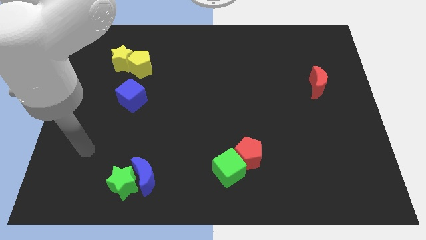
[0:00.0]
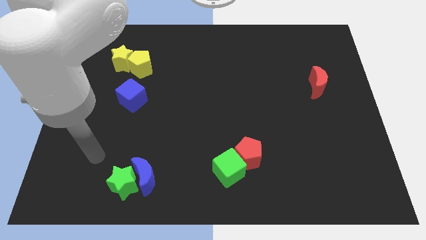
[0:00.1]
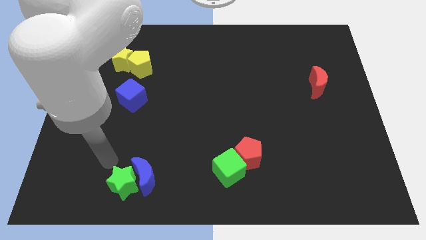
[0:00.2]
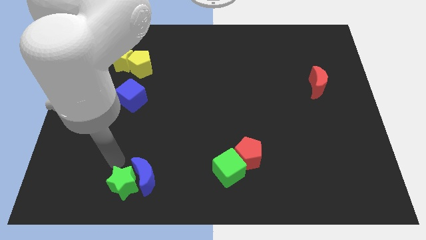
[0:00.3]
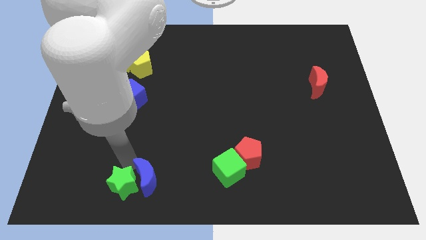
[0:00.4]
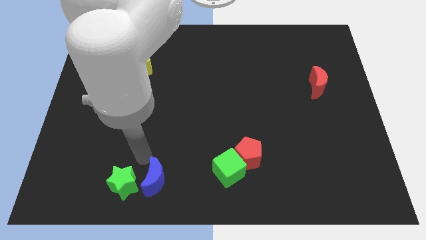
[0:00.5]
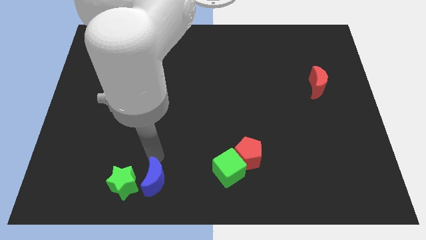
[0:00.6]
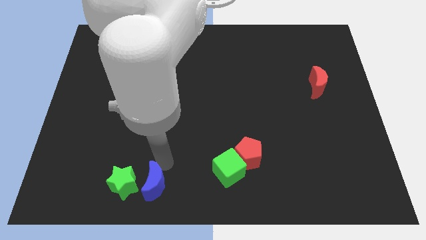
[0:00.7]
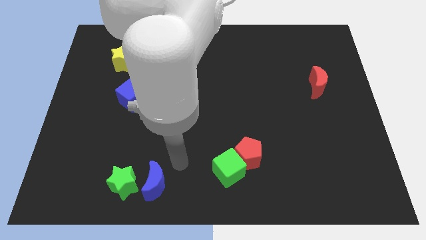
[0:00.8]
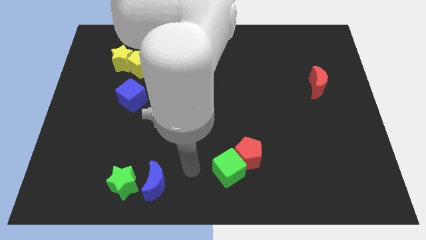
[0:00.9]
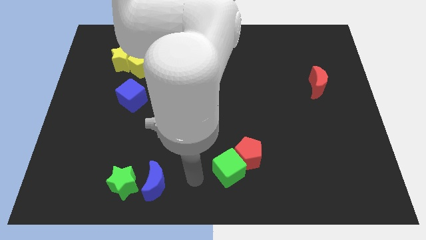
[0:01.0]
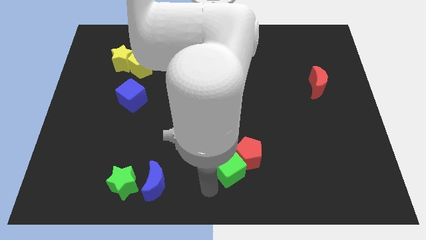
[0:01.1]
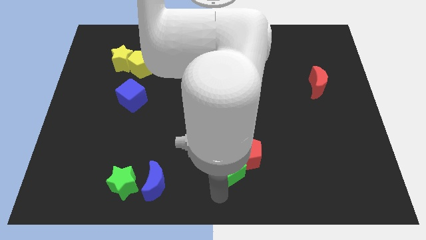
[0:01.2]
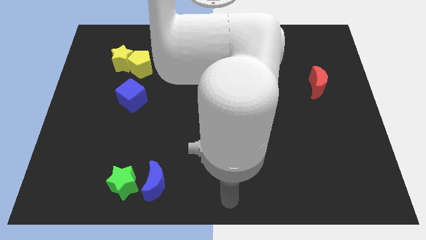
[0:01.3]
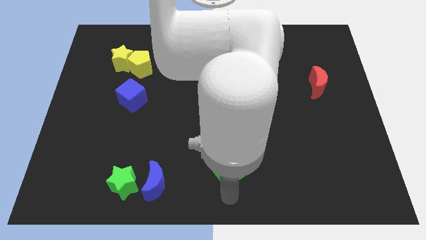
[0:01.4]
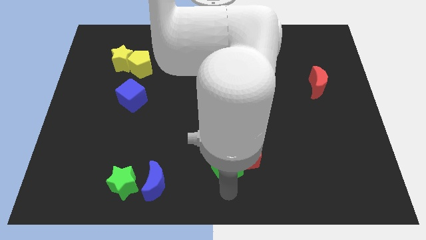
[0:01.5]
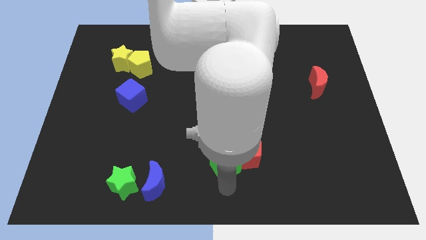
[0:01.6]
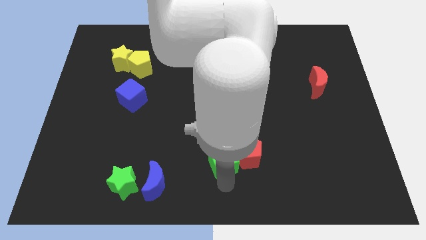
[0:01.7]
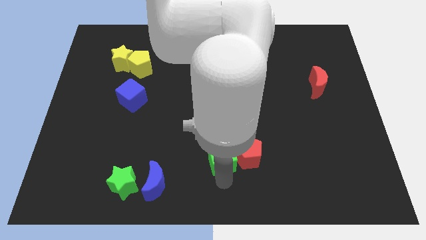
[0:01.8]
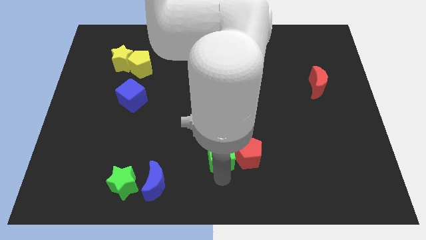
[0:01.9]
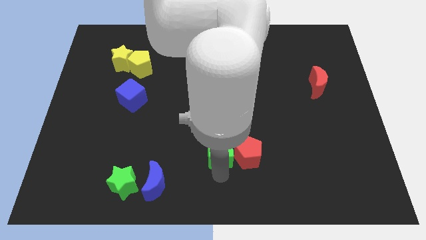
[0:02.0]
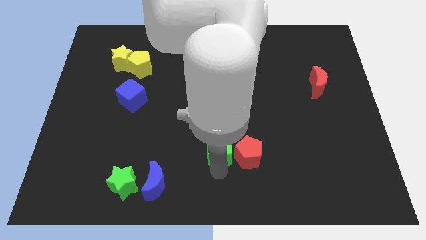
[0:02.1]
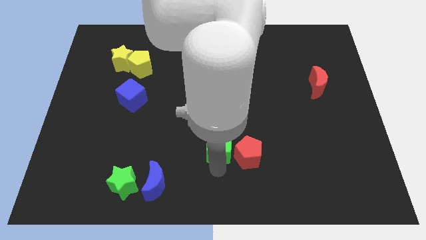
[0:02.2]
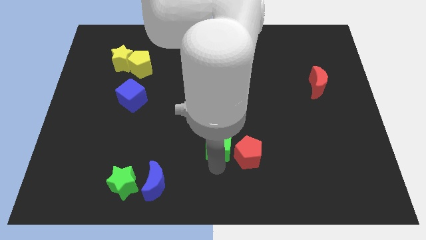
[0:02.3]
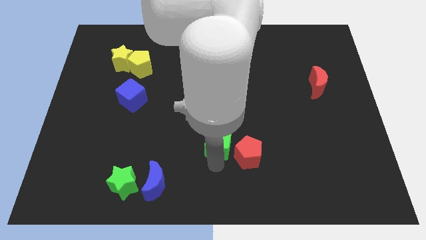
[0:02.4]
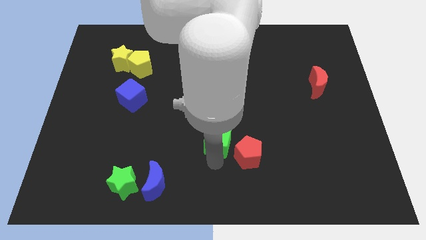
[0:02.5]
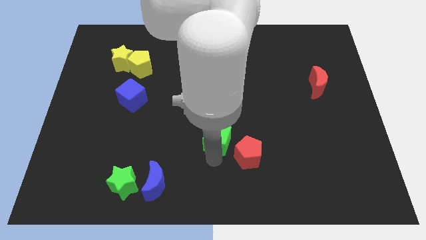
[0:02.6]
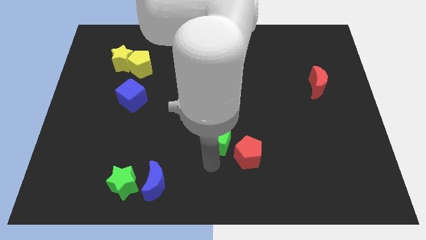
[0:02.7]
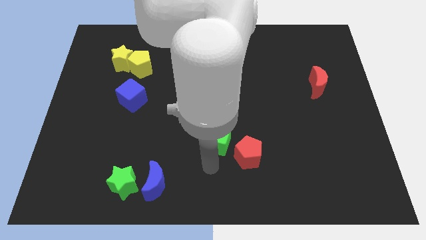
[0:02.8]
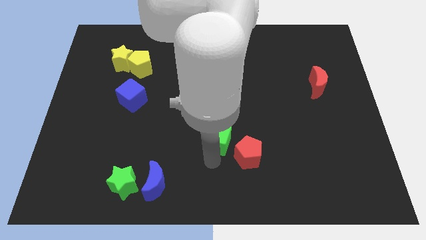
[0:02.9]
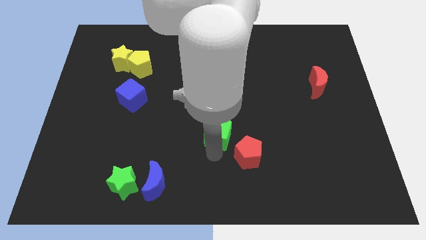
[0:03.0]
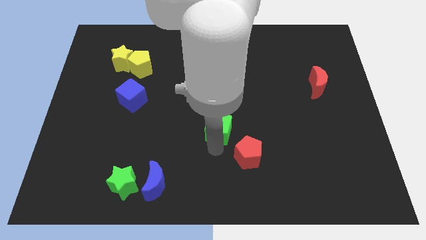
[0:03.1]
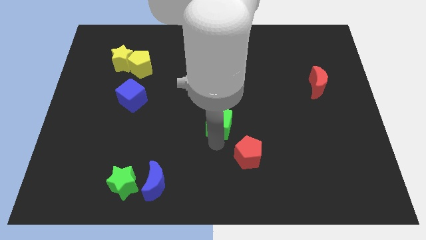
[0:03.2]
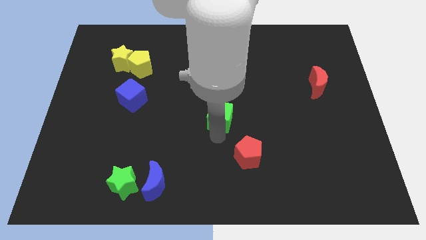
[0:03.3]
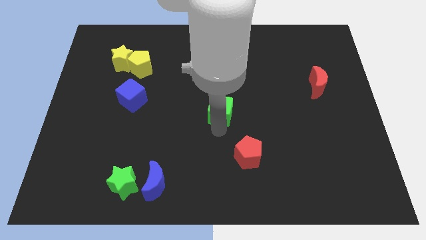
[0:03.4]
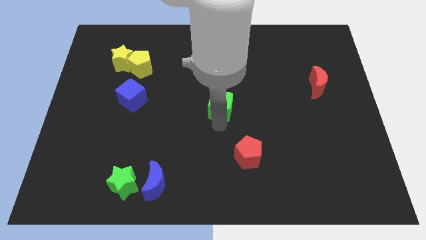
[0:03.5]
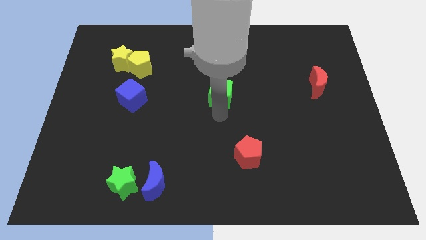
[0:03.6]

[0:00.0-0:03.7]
slide the green cube upwards

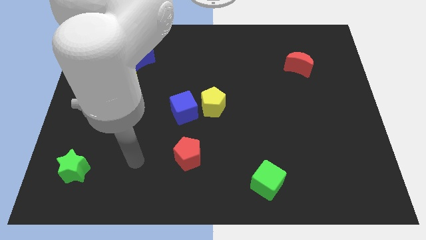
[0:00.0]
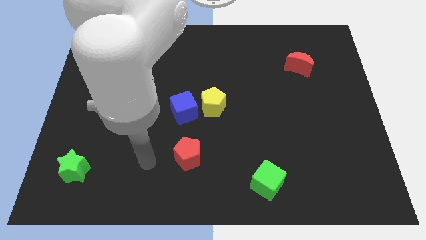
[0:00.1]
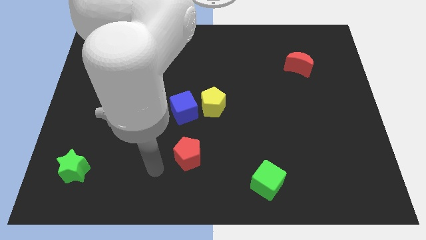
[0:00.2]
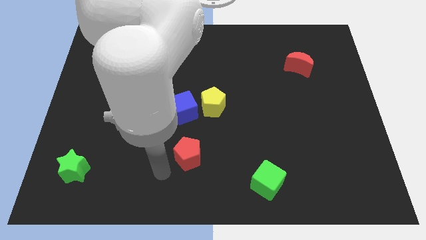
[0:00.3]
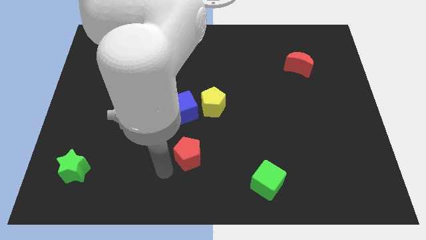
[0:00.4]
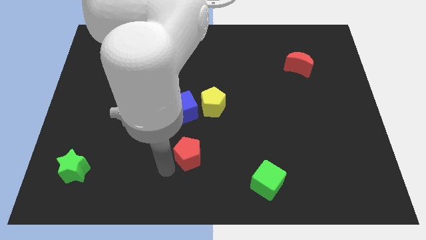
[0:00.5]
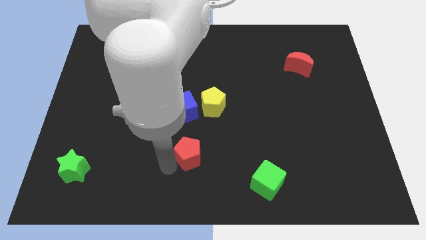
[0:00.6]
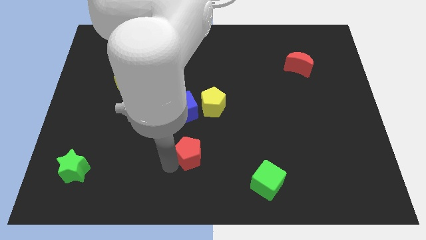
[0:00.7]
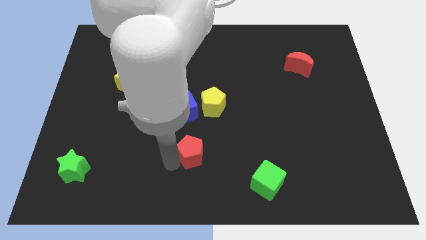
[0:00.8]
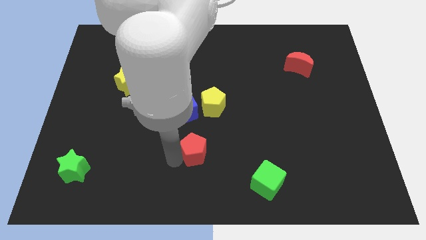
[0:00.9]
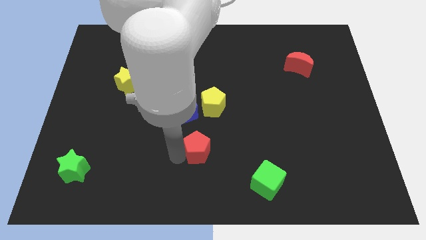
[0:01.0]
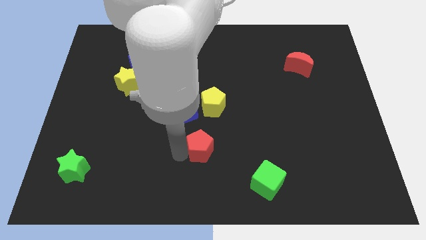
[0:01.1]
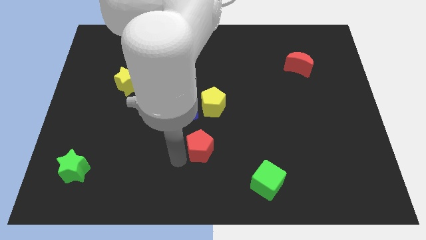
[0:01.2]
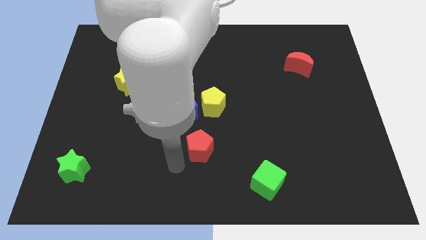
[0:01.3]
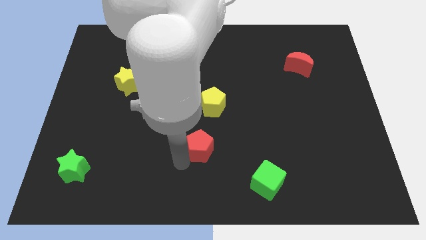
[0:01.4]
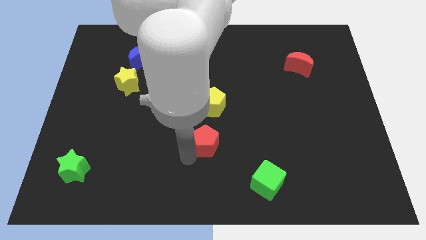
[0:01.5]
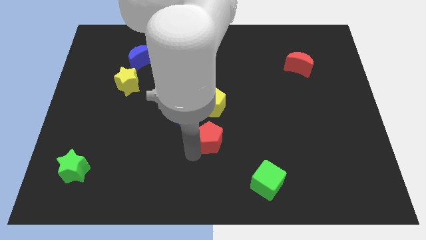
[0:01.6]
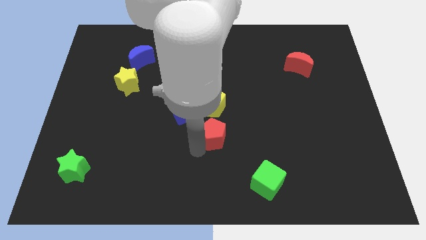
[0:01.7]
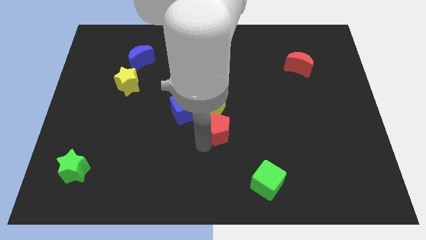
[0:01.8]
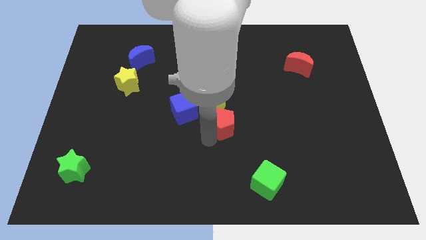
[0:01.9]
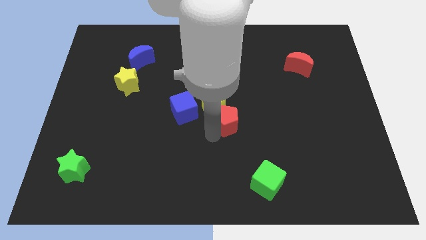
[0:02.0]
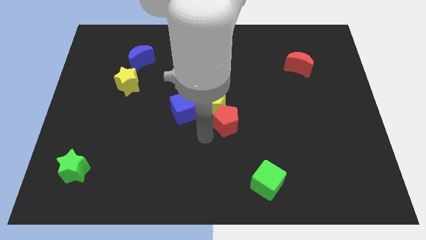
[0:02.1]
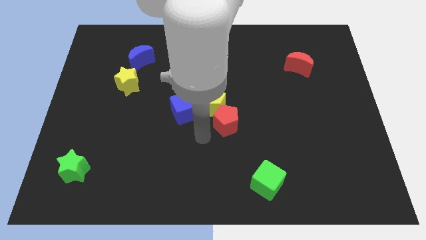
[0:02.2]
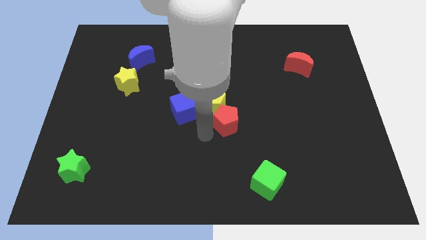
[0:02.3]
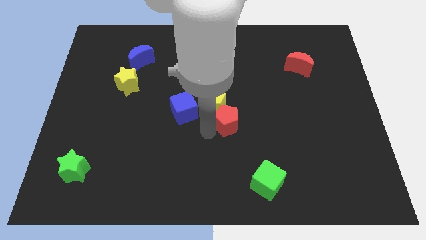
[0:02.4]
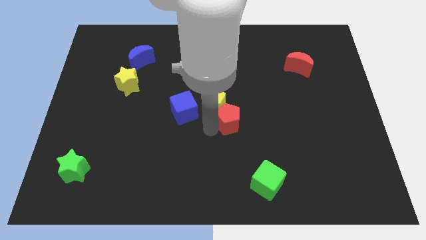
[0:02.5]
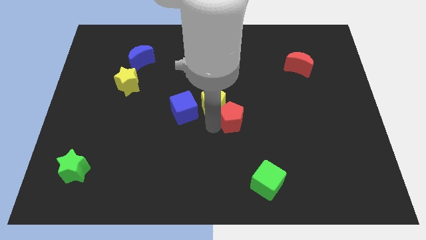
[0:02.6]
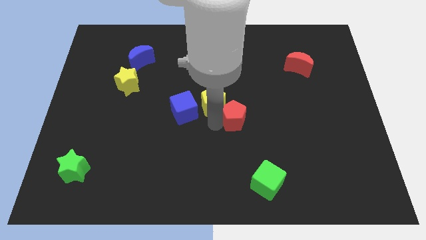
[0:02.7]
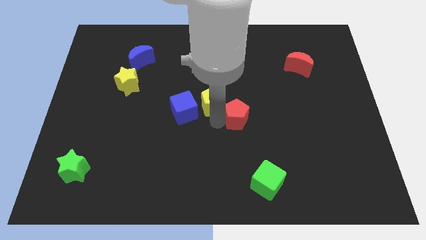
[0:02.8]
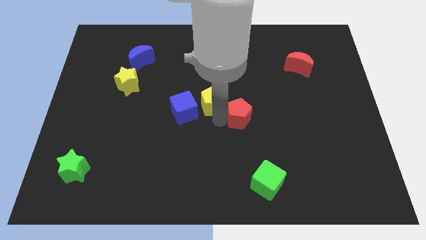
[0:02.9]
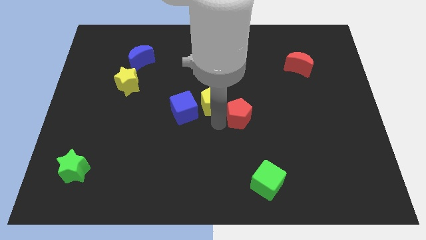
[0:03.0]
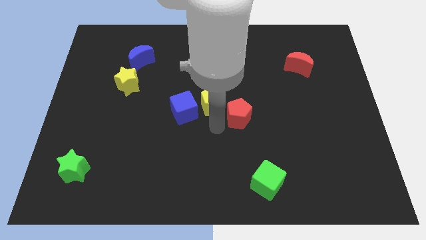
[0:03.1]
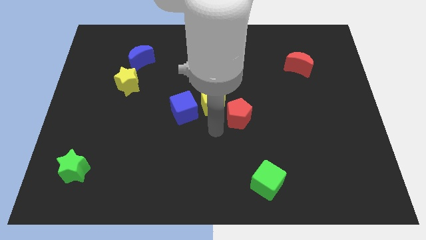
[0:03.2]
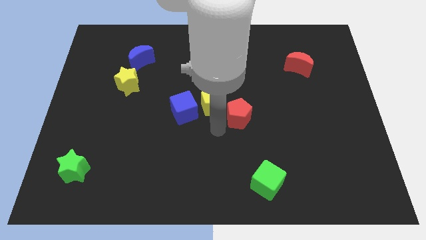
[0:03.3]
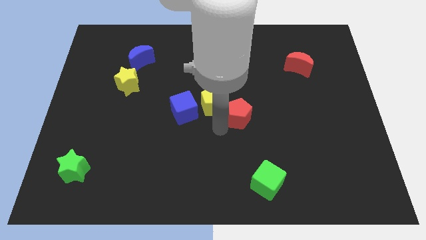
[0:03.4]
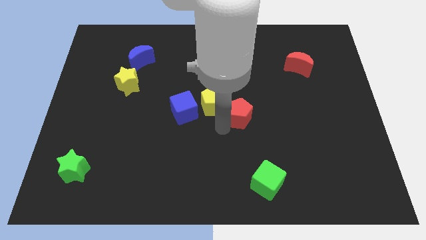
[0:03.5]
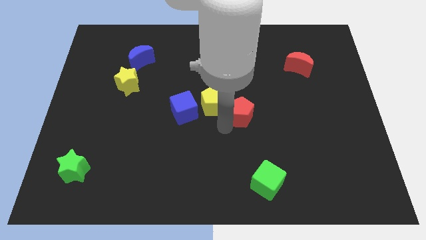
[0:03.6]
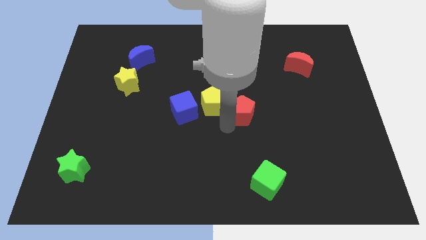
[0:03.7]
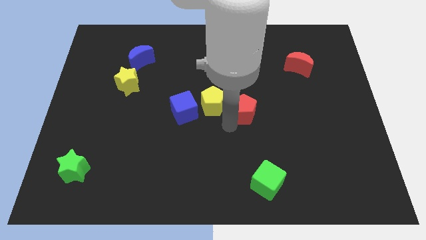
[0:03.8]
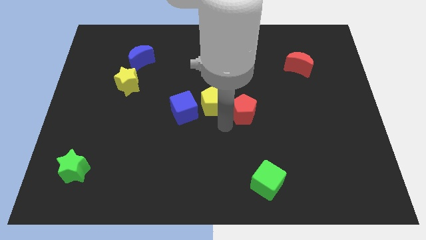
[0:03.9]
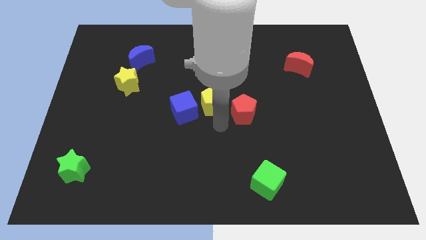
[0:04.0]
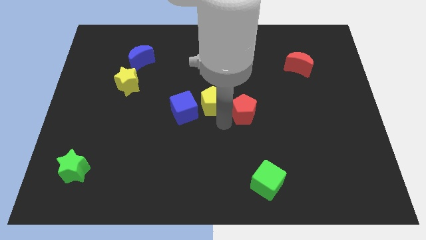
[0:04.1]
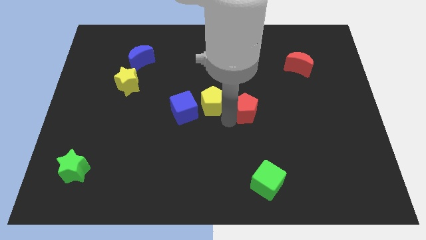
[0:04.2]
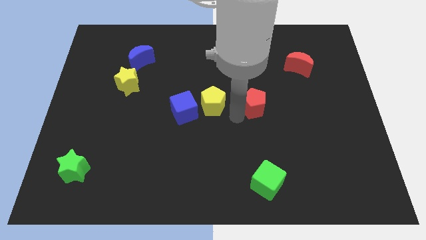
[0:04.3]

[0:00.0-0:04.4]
move the red pentagon up and right

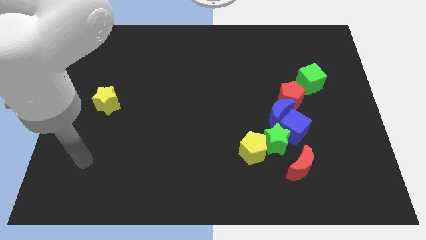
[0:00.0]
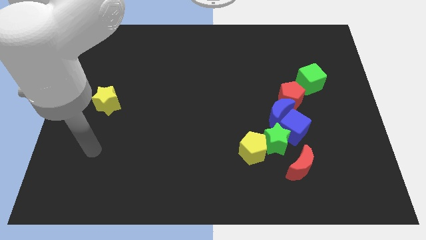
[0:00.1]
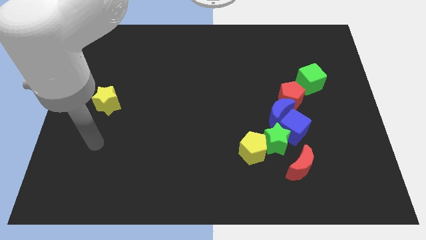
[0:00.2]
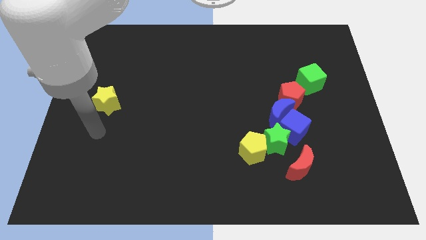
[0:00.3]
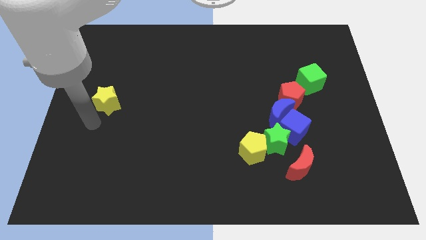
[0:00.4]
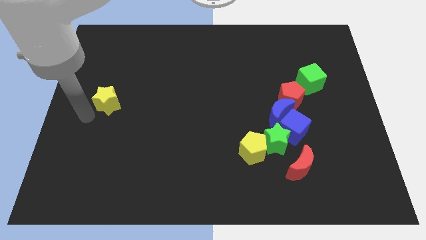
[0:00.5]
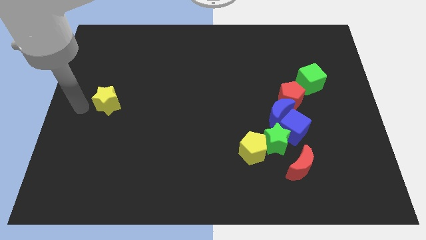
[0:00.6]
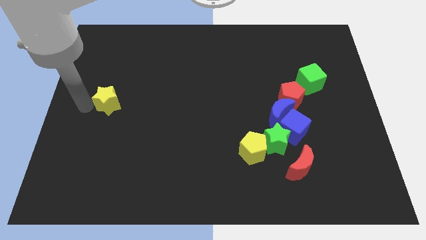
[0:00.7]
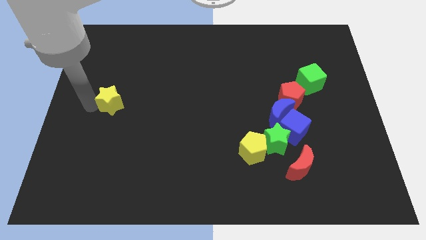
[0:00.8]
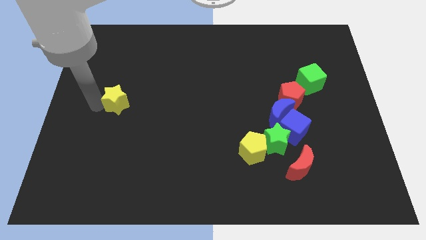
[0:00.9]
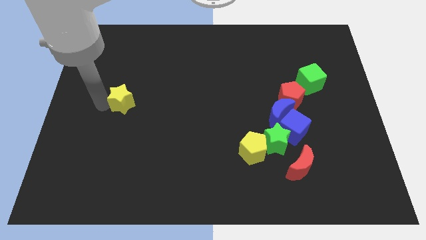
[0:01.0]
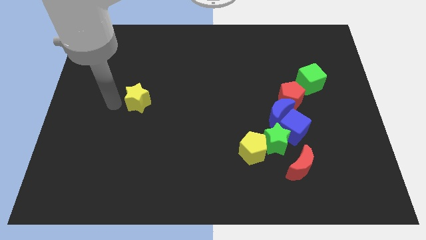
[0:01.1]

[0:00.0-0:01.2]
push the yellow star to the right a bit
